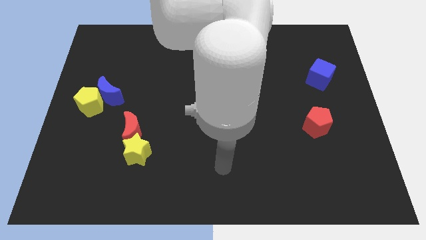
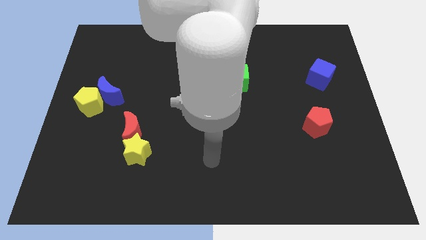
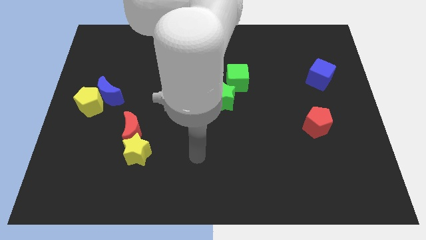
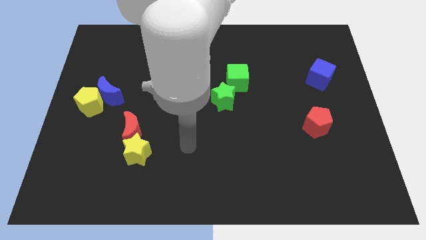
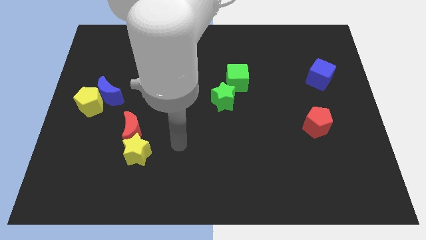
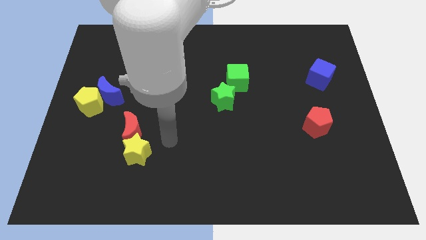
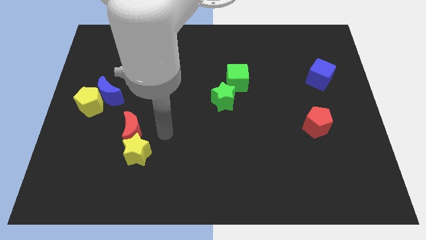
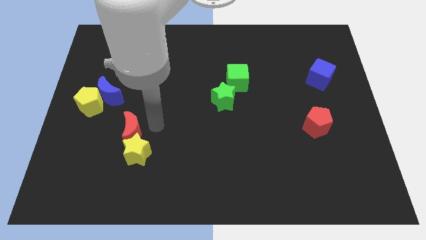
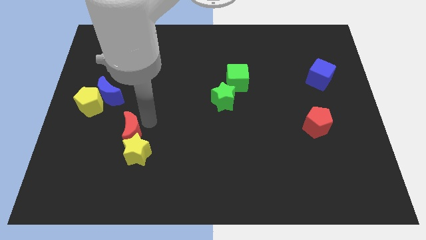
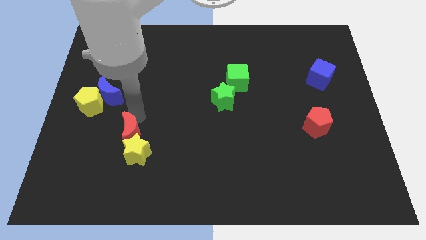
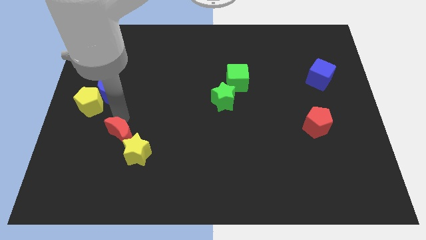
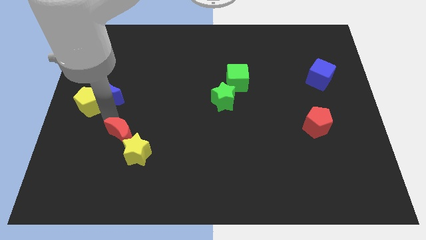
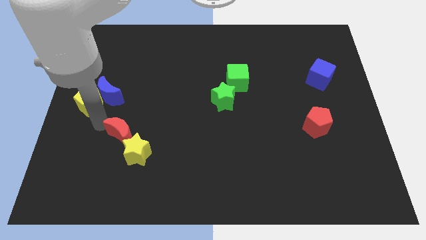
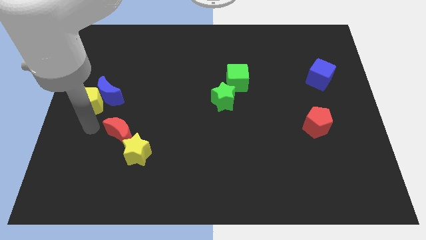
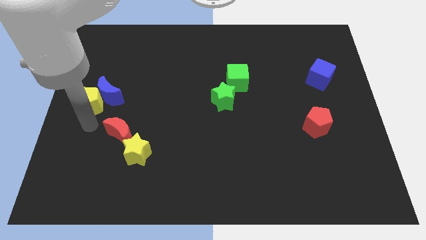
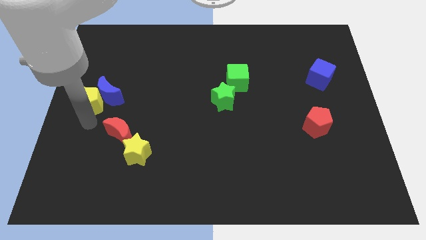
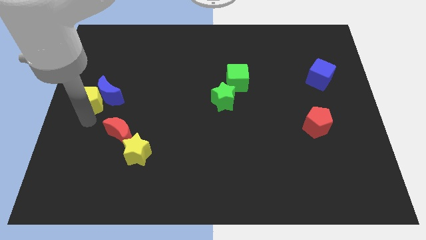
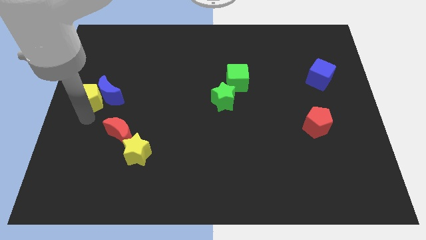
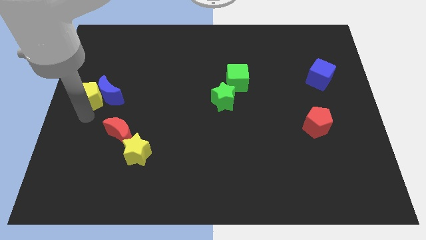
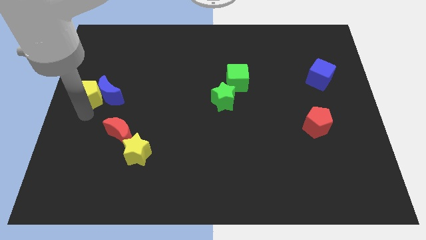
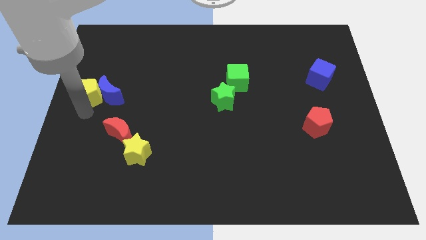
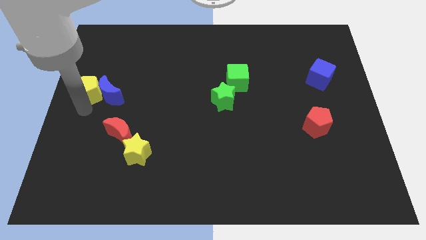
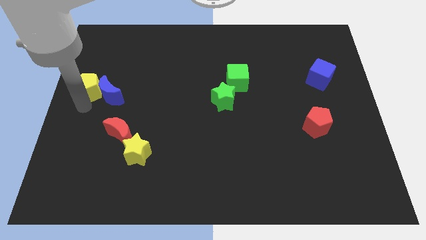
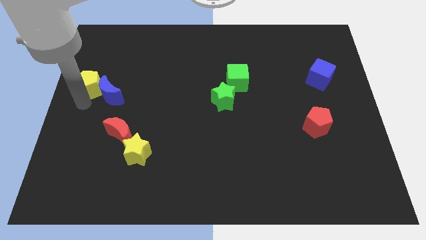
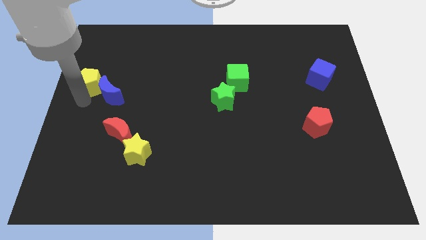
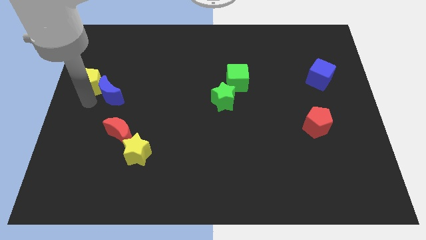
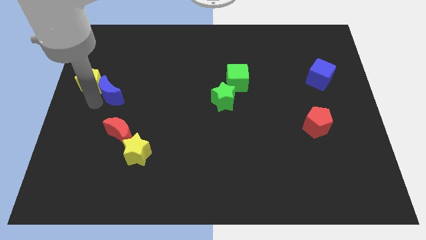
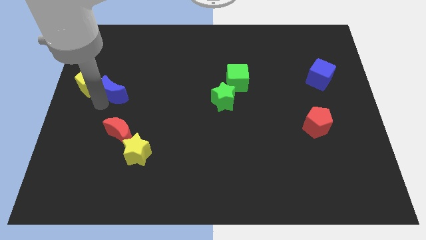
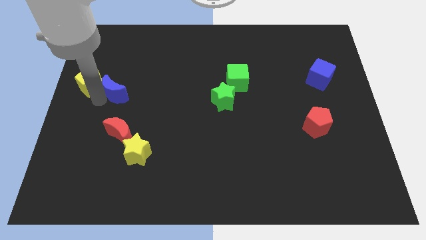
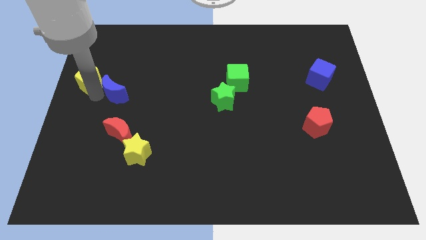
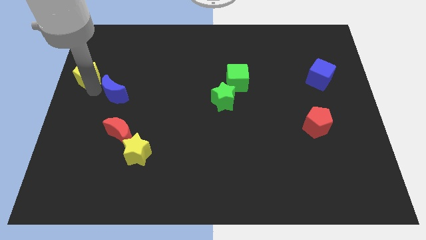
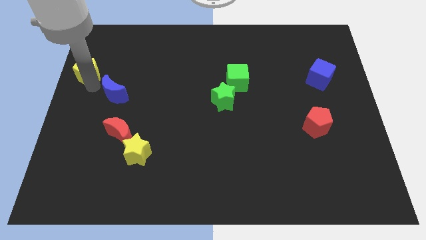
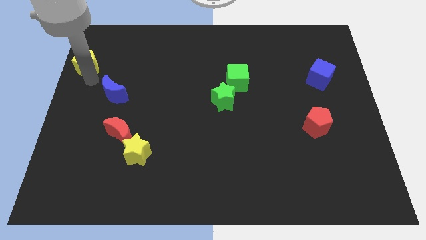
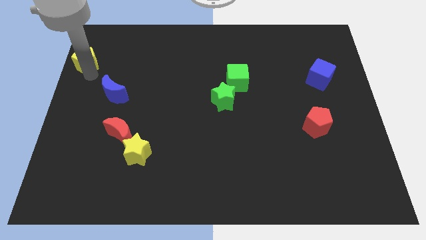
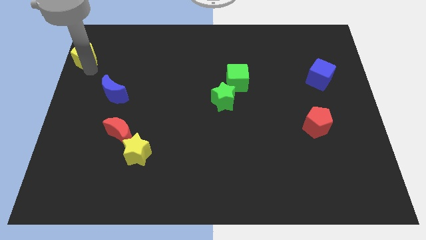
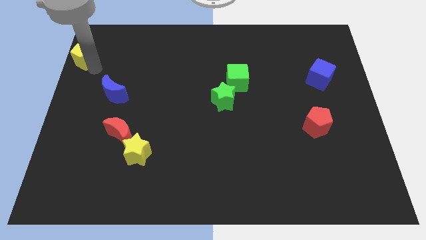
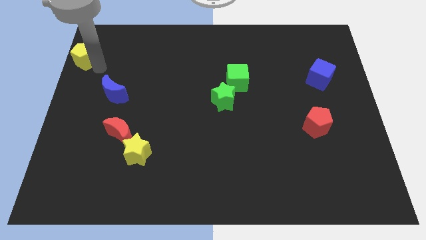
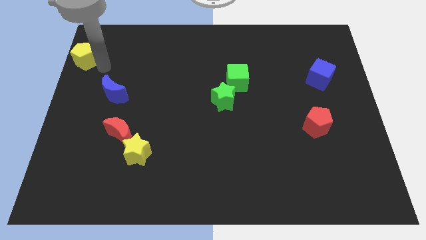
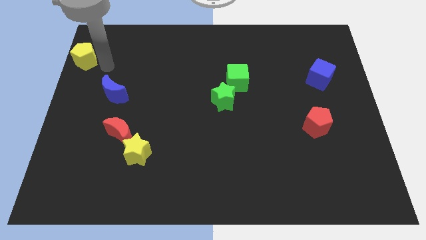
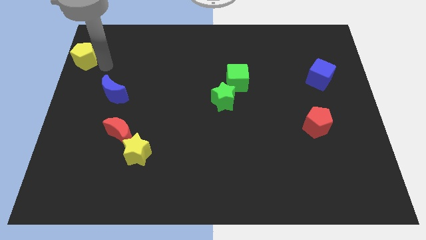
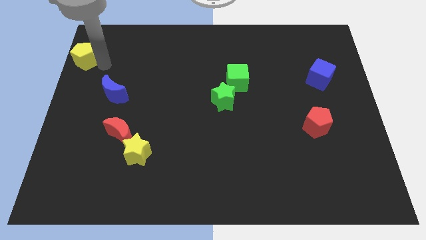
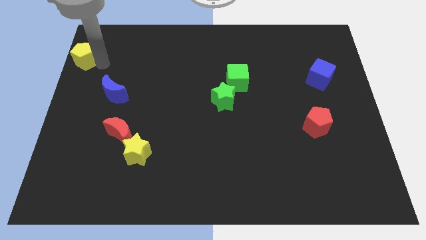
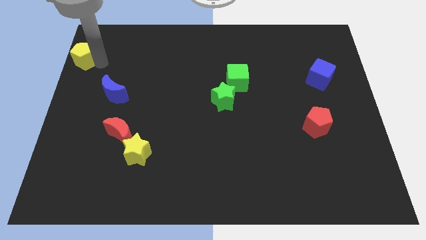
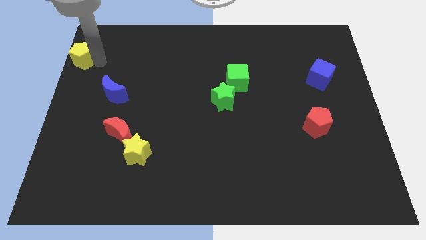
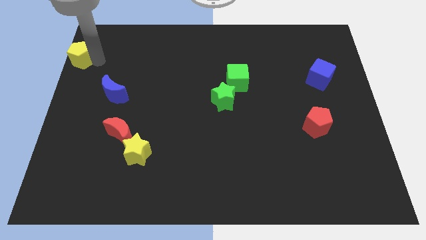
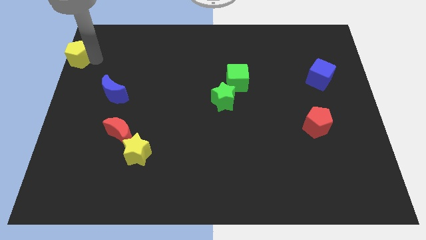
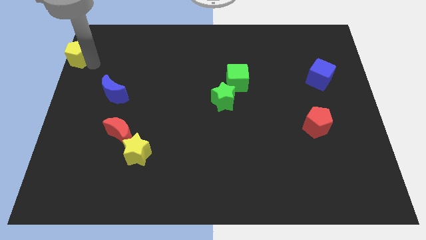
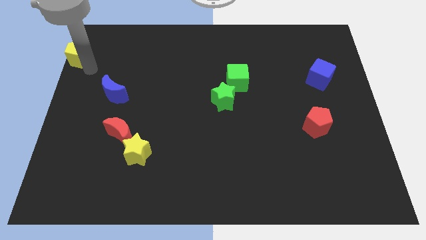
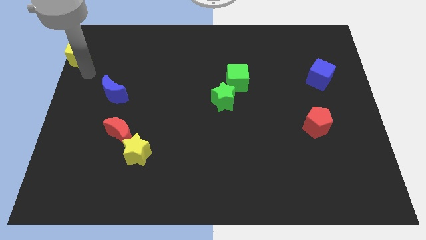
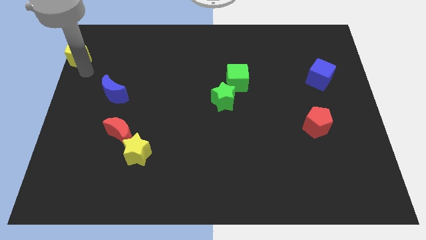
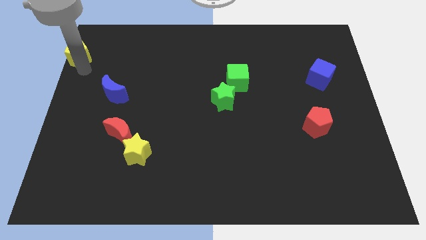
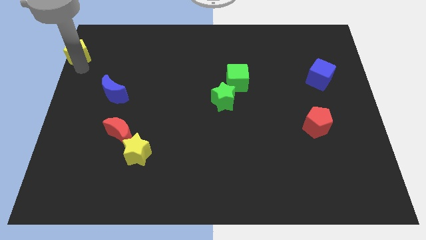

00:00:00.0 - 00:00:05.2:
slide the yellow pentagon to the top left of the board
